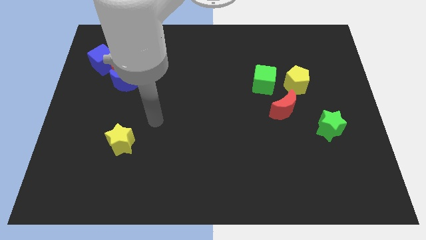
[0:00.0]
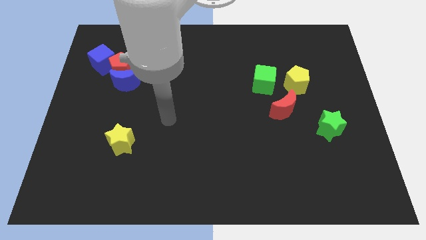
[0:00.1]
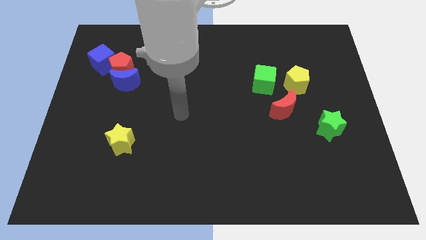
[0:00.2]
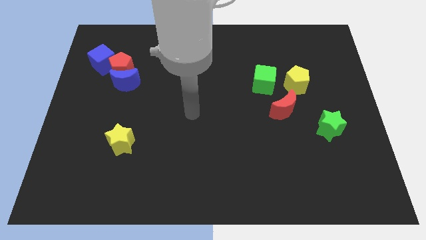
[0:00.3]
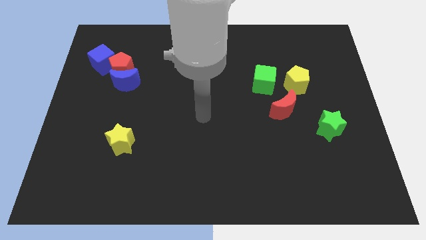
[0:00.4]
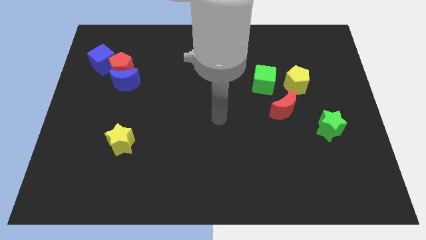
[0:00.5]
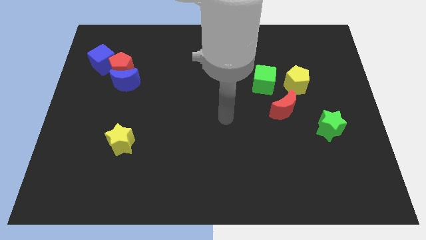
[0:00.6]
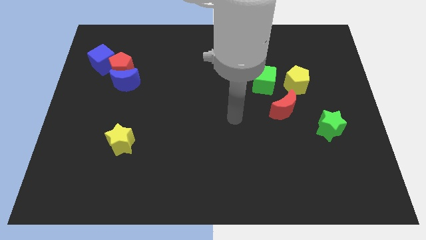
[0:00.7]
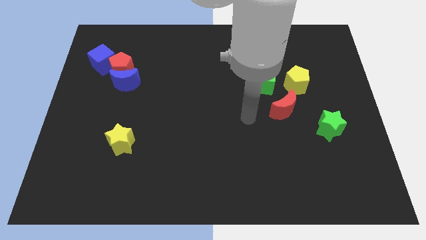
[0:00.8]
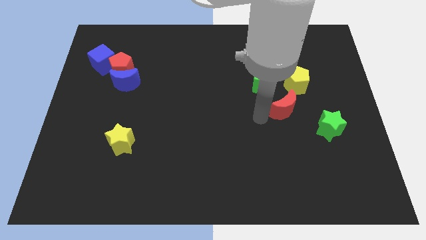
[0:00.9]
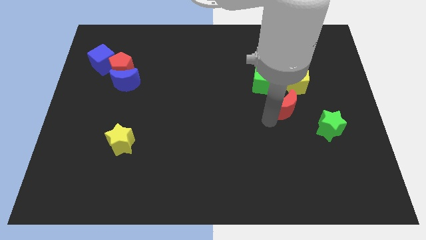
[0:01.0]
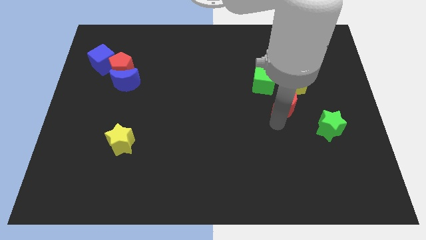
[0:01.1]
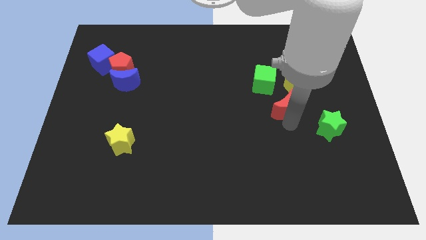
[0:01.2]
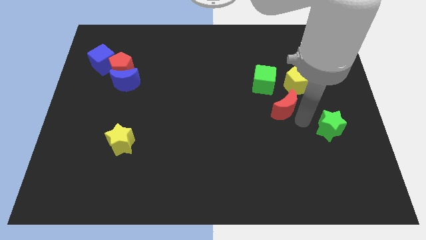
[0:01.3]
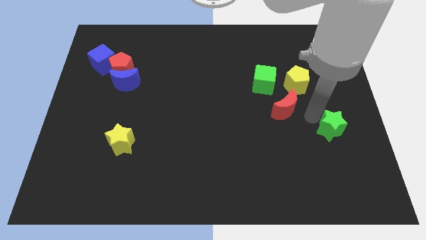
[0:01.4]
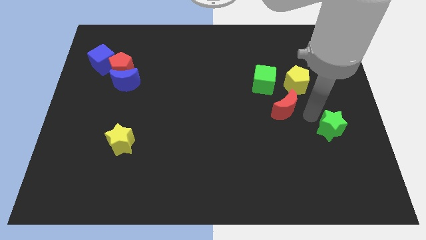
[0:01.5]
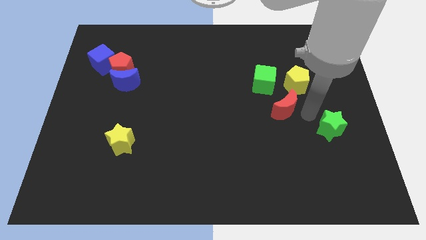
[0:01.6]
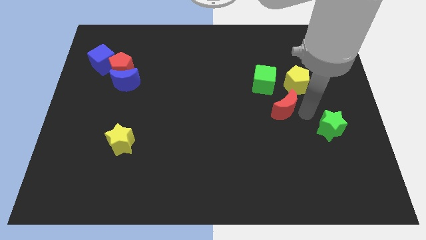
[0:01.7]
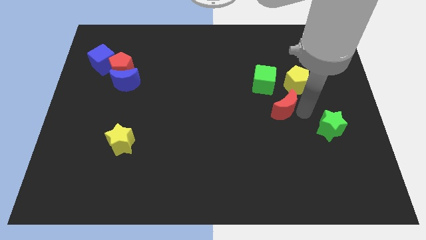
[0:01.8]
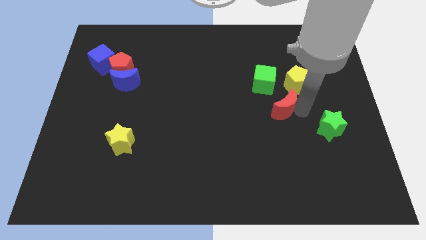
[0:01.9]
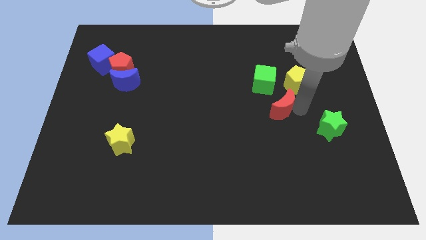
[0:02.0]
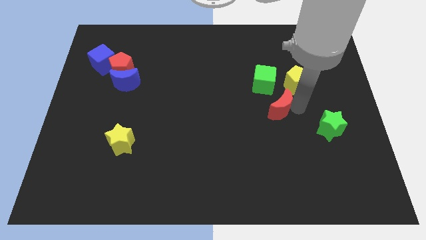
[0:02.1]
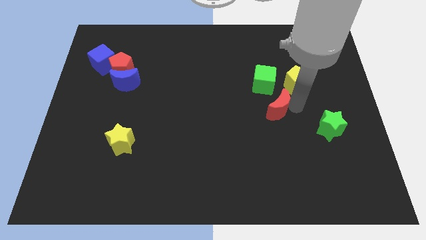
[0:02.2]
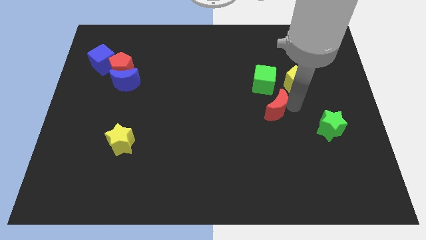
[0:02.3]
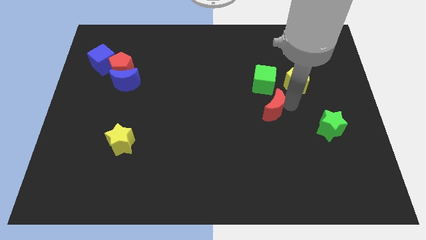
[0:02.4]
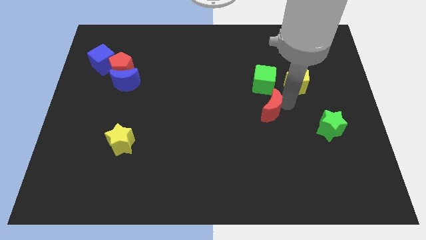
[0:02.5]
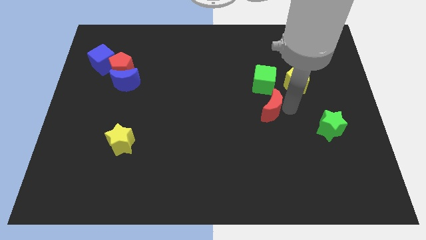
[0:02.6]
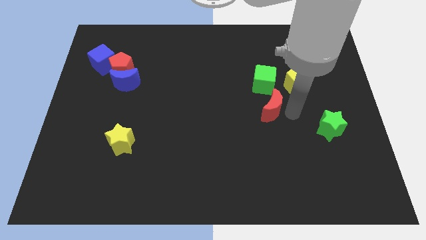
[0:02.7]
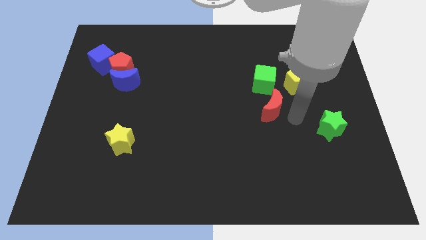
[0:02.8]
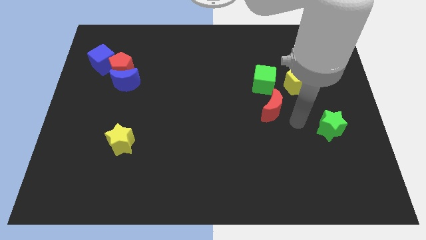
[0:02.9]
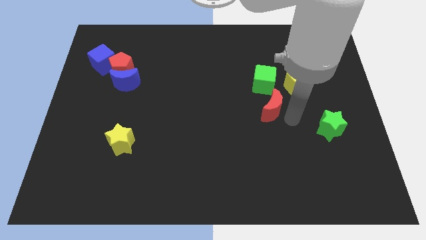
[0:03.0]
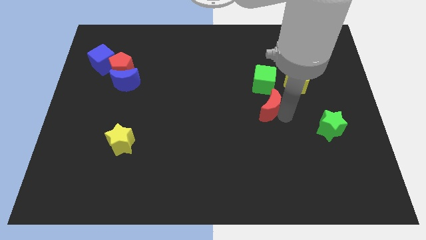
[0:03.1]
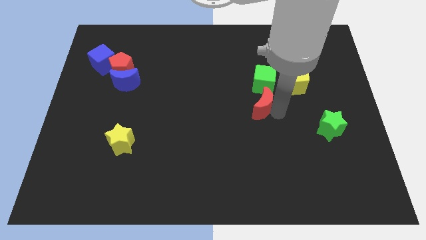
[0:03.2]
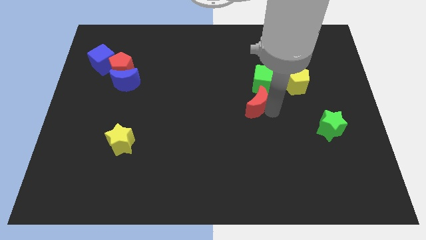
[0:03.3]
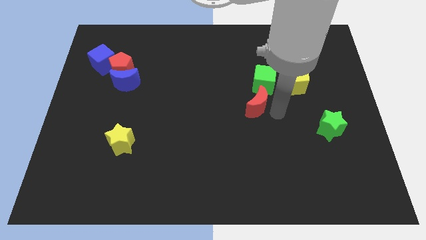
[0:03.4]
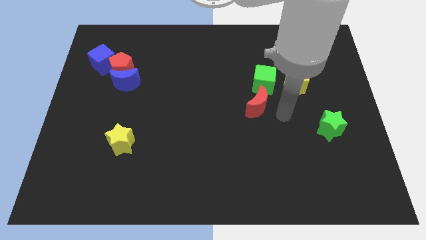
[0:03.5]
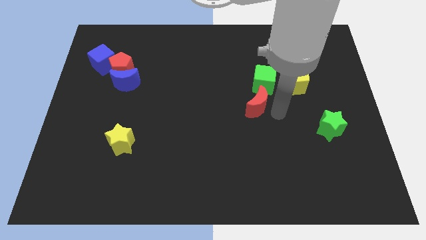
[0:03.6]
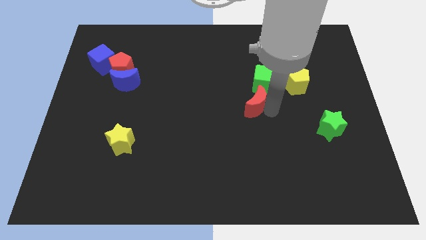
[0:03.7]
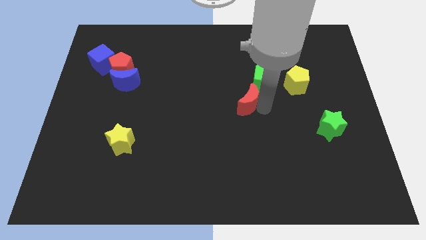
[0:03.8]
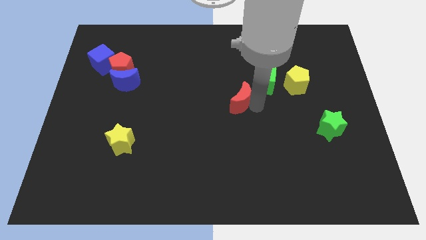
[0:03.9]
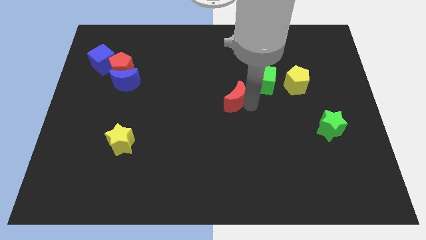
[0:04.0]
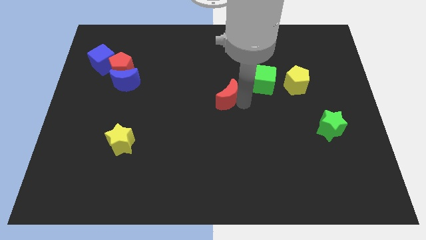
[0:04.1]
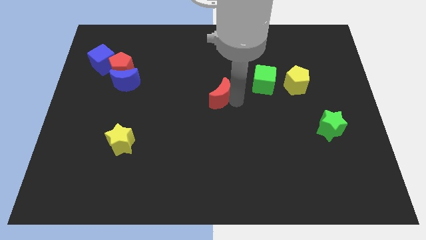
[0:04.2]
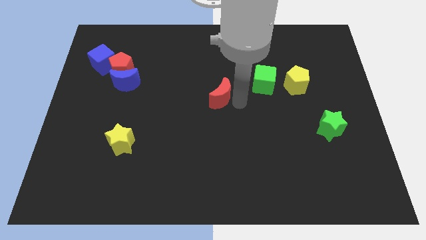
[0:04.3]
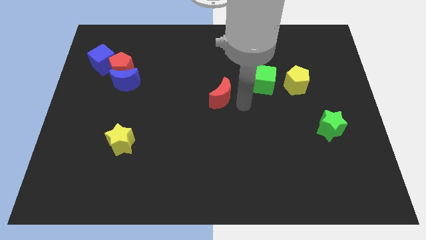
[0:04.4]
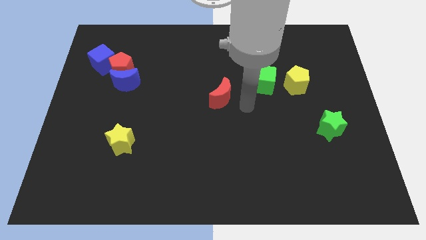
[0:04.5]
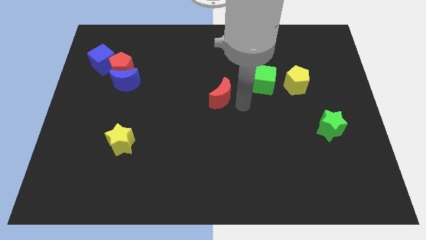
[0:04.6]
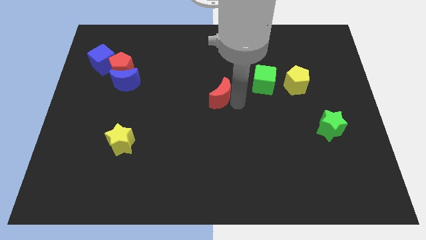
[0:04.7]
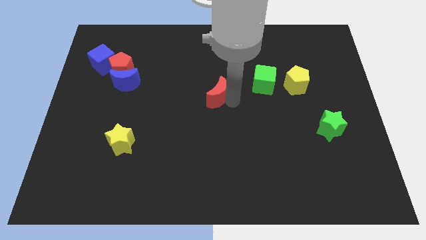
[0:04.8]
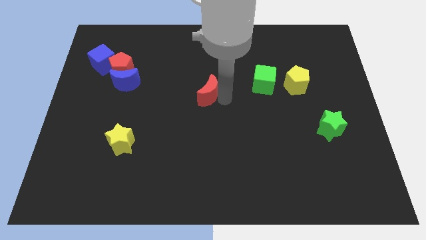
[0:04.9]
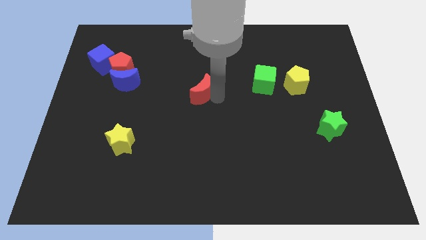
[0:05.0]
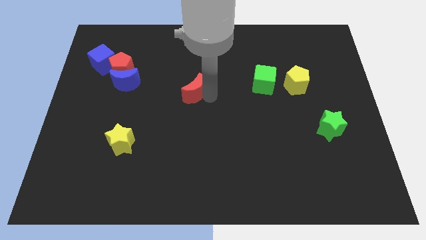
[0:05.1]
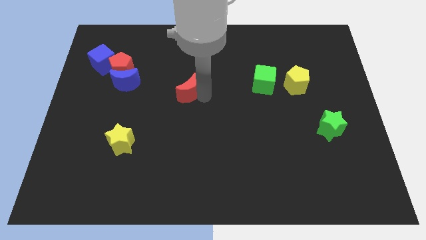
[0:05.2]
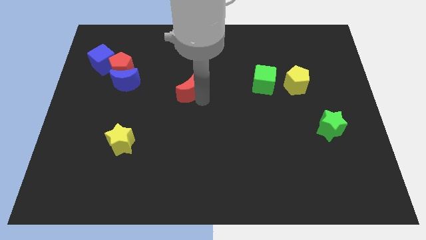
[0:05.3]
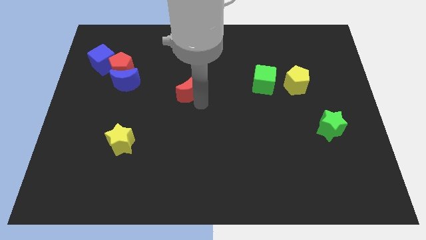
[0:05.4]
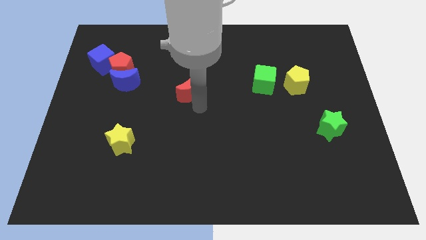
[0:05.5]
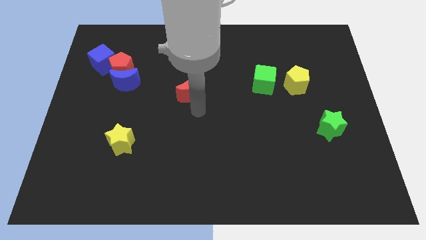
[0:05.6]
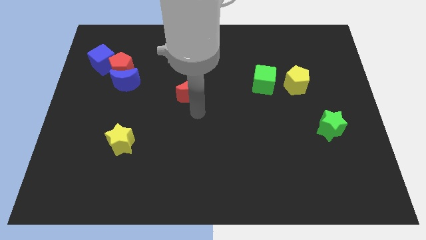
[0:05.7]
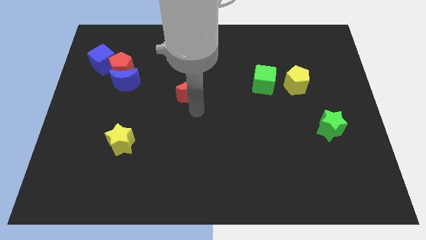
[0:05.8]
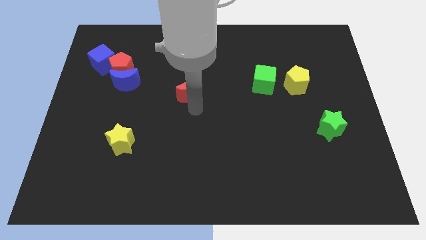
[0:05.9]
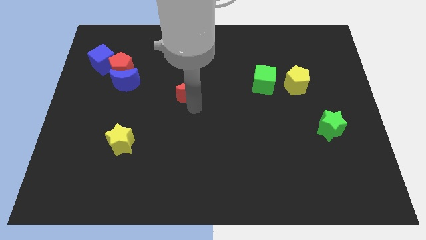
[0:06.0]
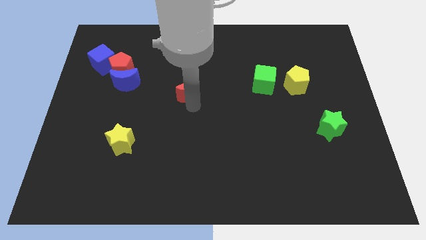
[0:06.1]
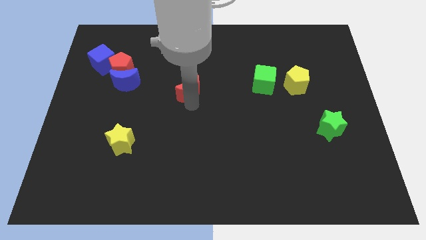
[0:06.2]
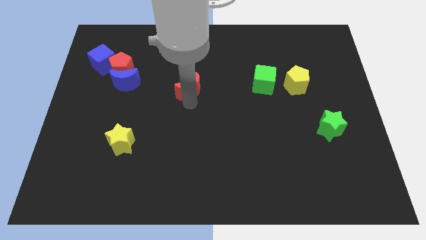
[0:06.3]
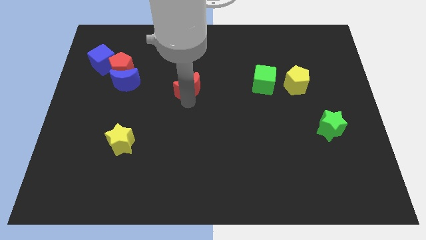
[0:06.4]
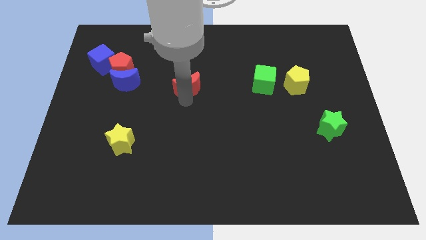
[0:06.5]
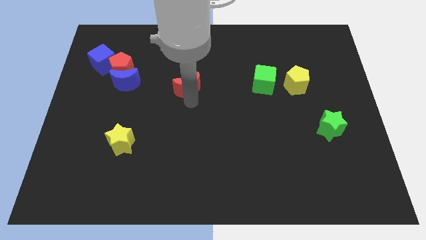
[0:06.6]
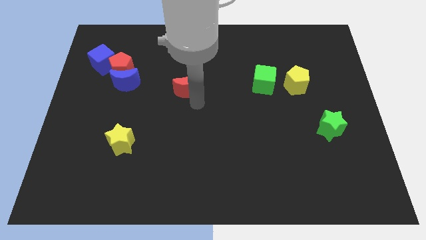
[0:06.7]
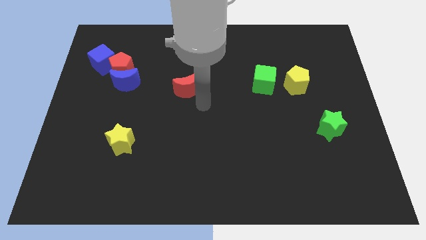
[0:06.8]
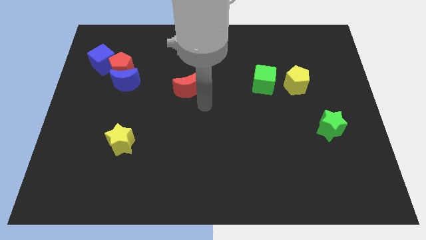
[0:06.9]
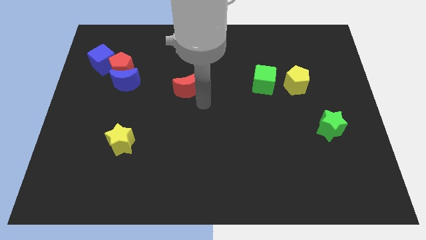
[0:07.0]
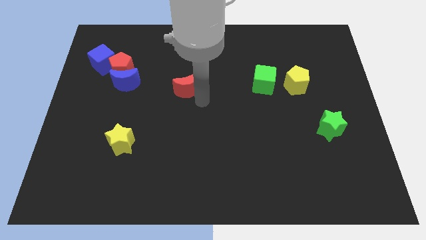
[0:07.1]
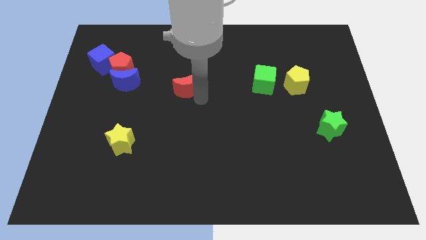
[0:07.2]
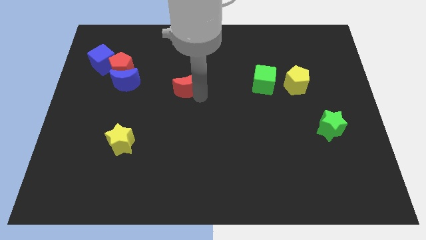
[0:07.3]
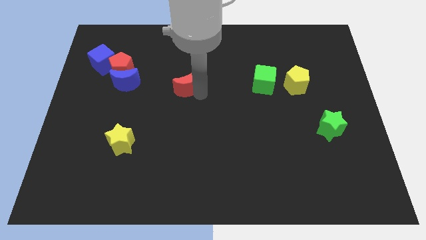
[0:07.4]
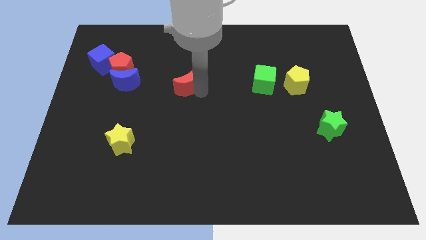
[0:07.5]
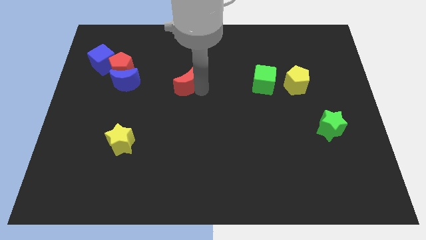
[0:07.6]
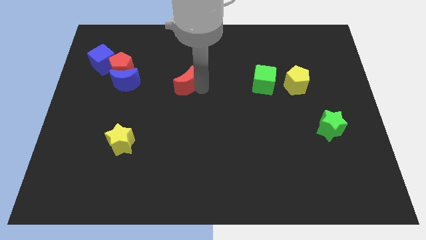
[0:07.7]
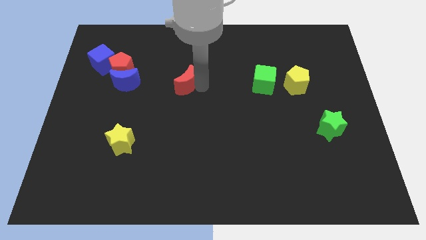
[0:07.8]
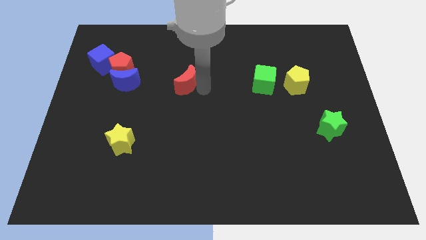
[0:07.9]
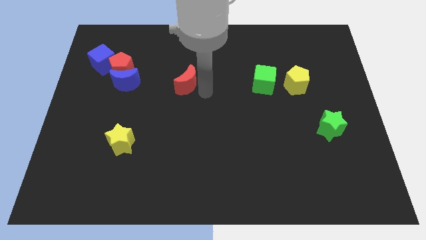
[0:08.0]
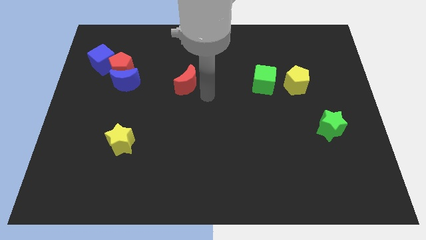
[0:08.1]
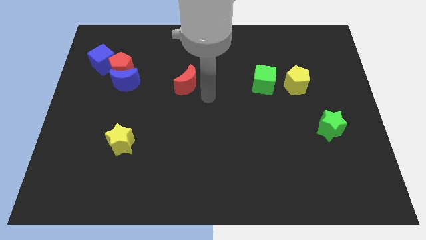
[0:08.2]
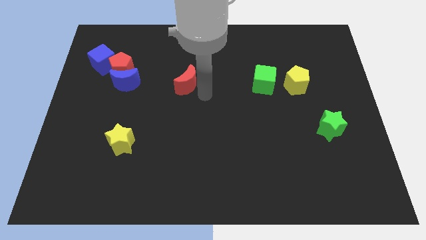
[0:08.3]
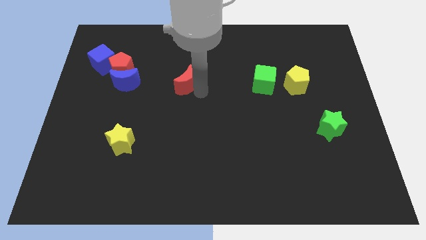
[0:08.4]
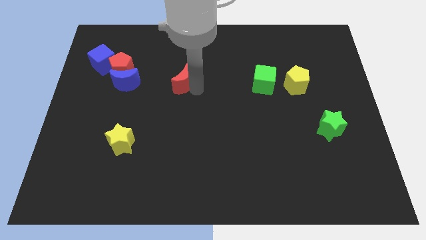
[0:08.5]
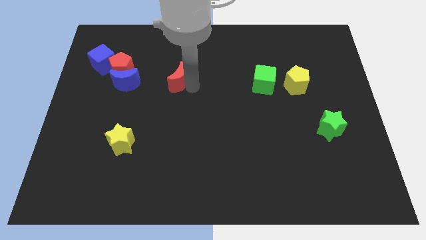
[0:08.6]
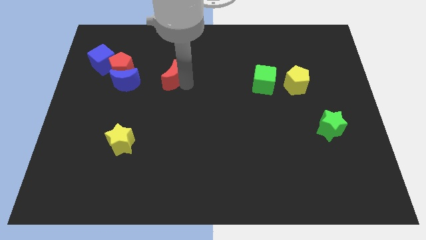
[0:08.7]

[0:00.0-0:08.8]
put the red moon right of the red pentagon
